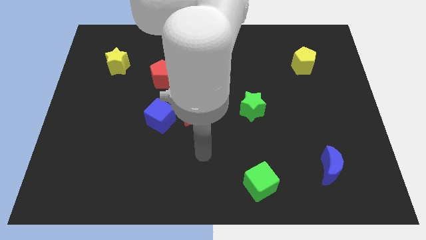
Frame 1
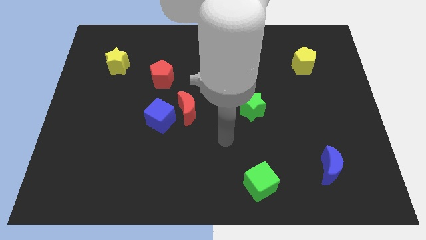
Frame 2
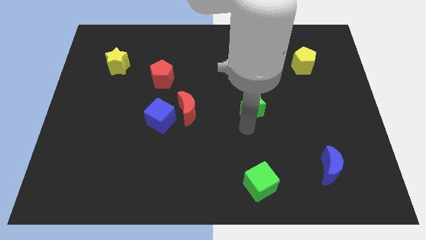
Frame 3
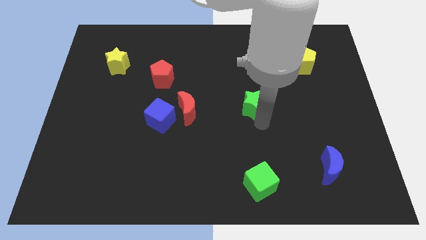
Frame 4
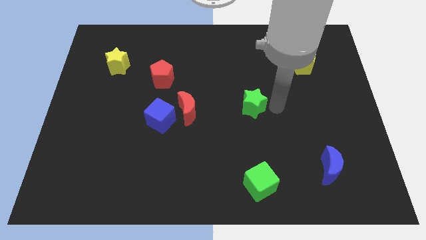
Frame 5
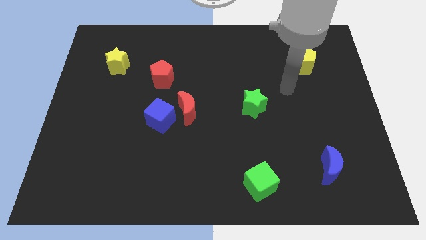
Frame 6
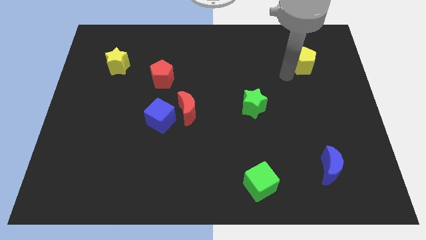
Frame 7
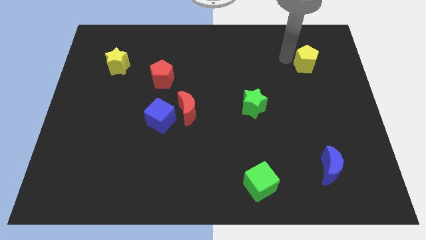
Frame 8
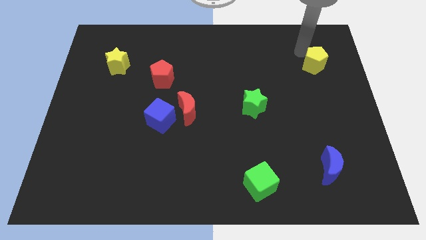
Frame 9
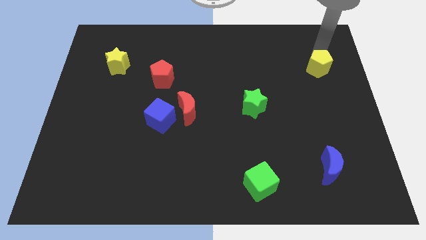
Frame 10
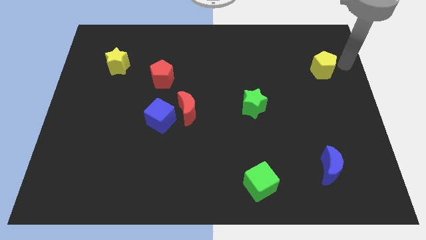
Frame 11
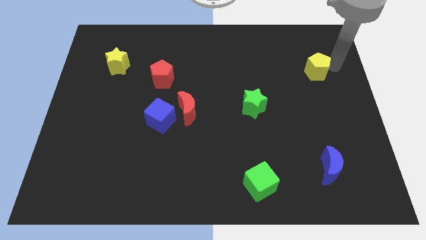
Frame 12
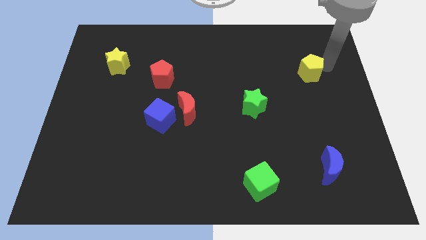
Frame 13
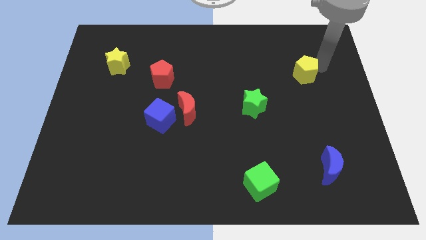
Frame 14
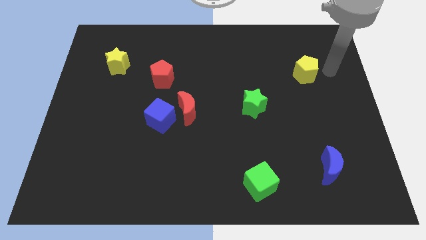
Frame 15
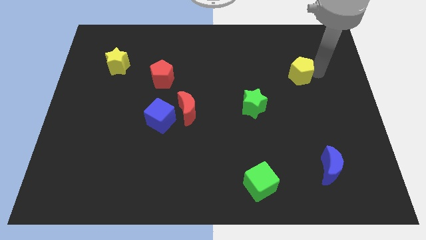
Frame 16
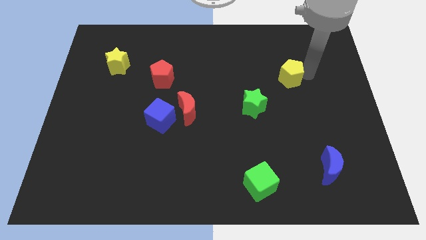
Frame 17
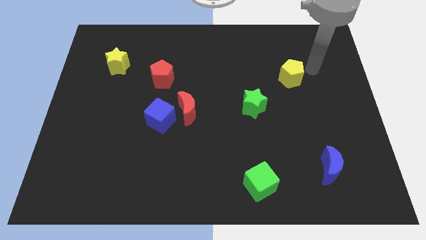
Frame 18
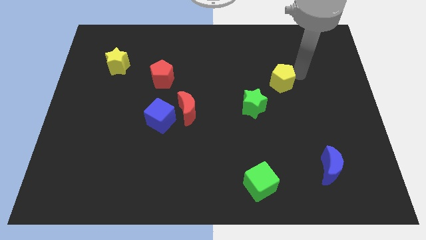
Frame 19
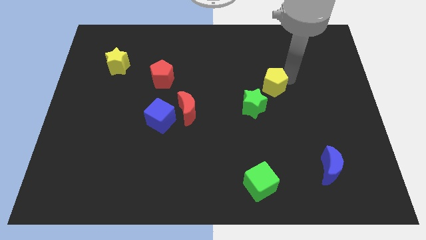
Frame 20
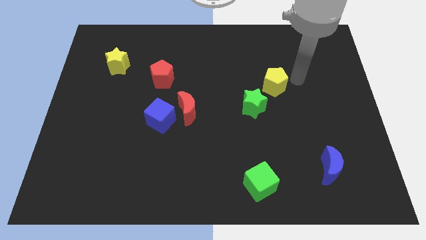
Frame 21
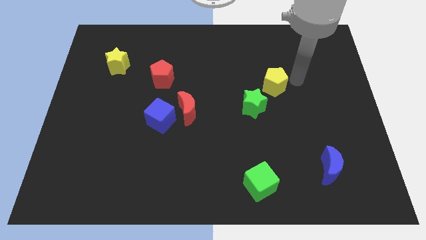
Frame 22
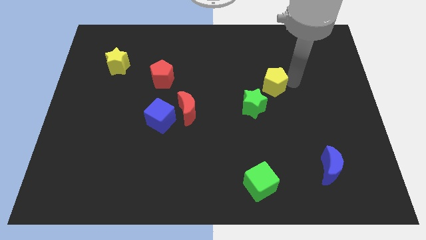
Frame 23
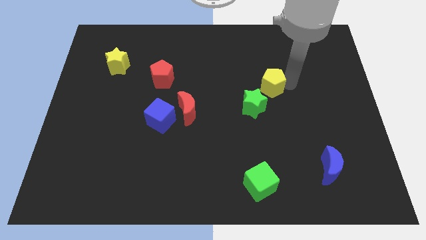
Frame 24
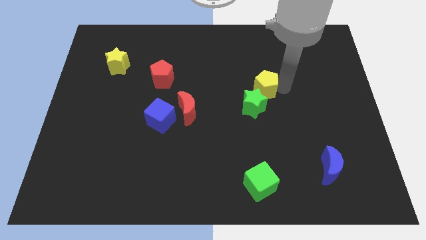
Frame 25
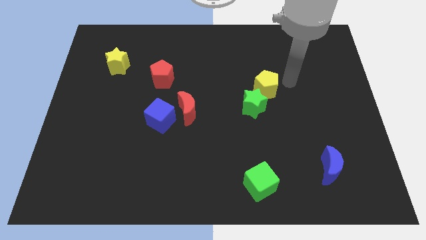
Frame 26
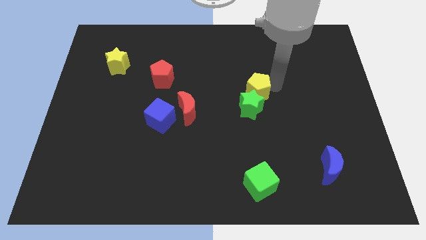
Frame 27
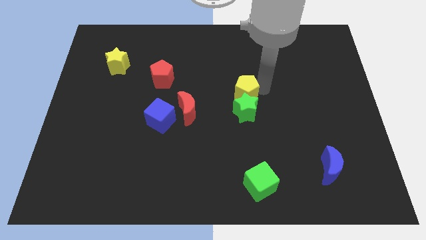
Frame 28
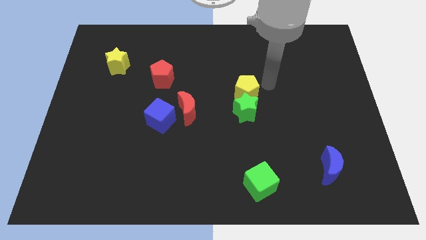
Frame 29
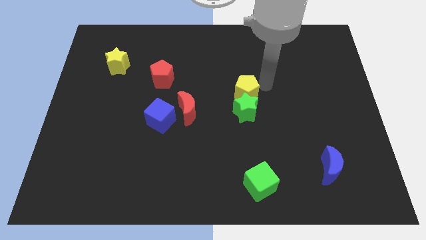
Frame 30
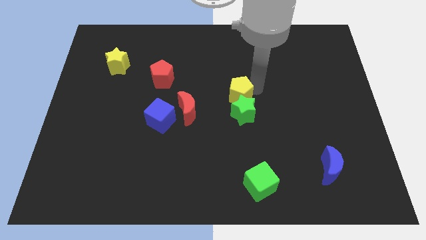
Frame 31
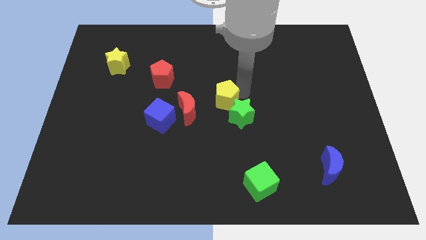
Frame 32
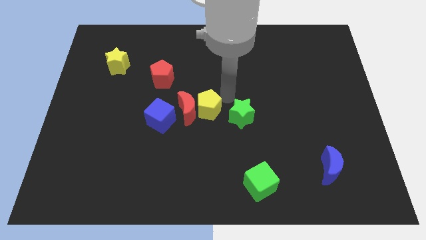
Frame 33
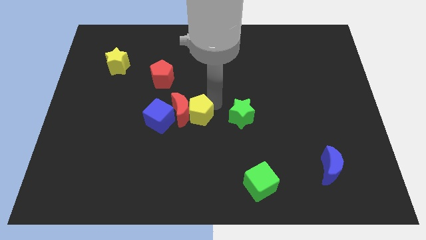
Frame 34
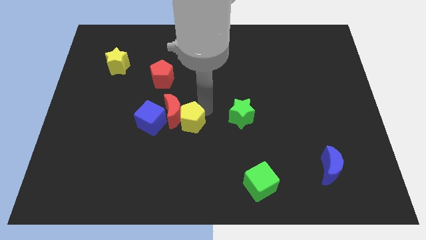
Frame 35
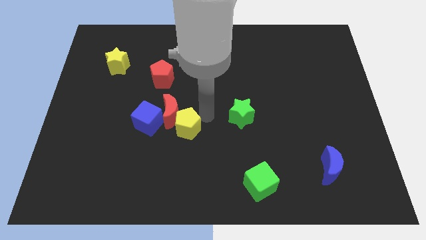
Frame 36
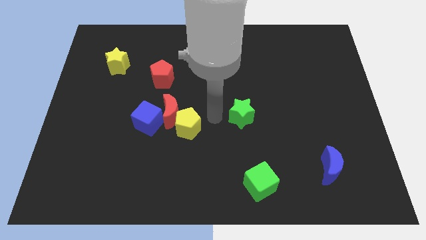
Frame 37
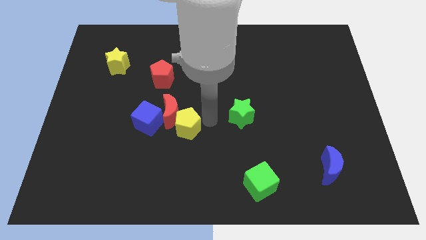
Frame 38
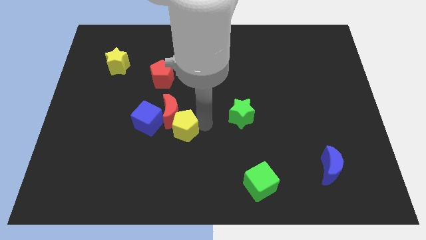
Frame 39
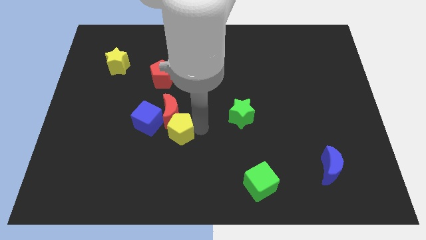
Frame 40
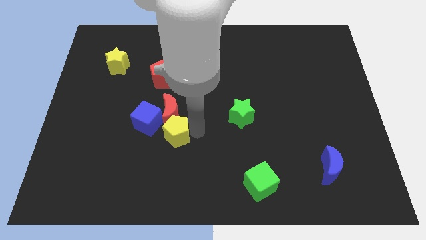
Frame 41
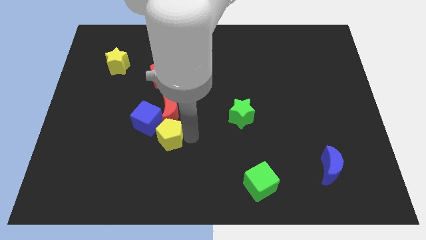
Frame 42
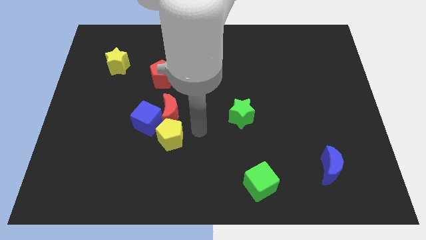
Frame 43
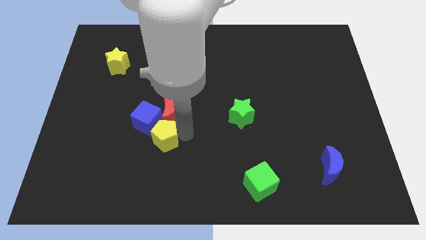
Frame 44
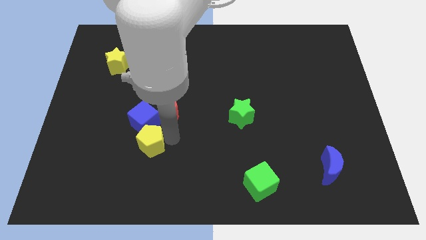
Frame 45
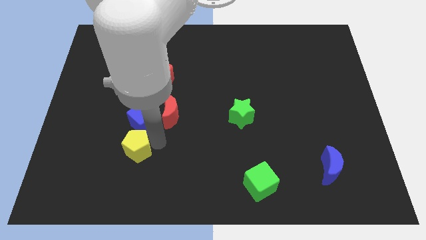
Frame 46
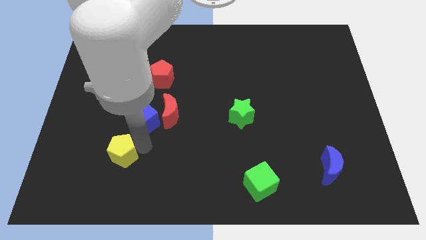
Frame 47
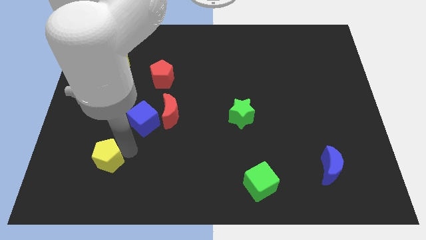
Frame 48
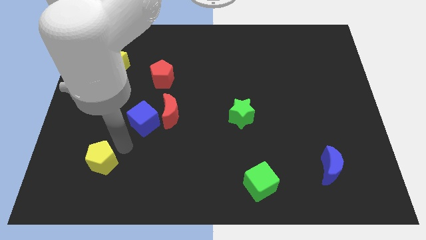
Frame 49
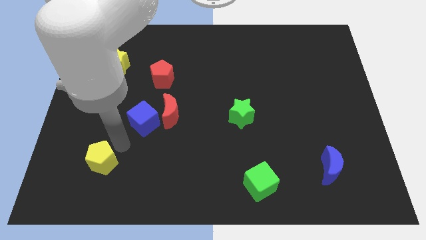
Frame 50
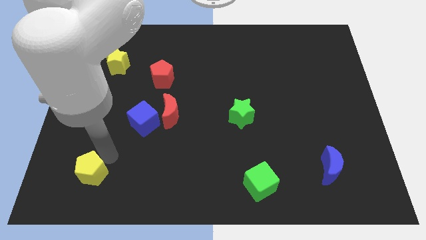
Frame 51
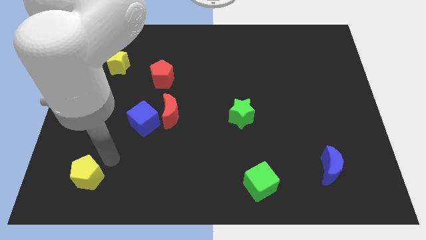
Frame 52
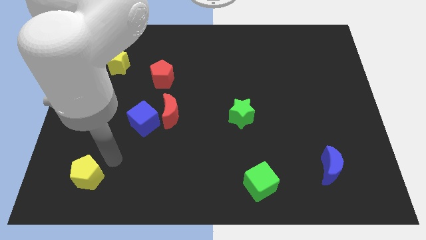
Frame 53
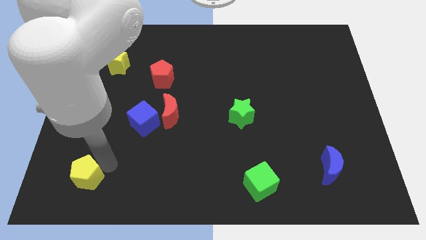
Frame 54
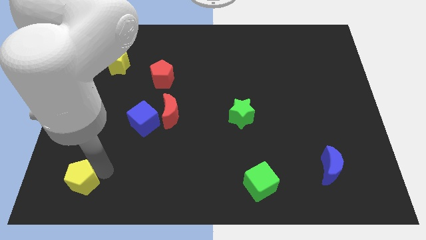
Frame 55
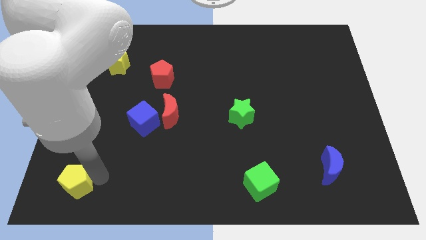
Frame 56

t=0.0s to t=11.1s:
put the yellow pentagon to the bottom left
